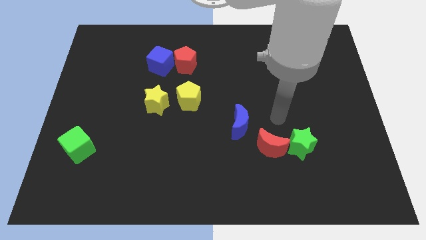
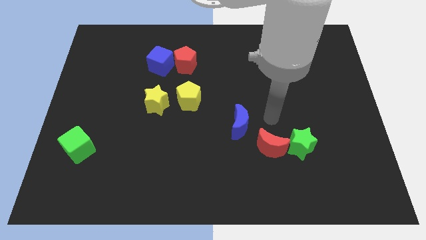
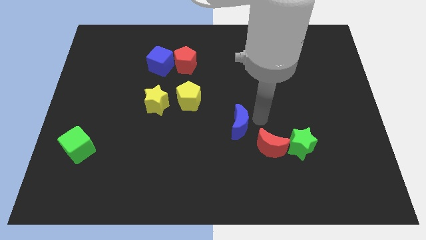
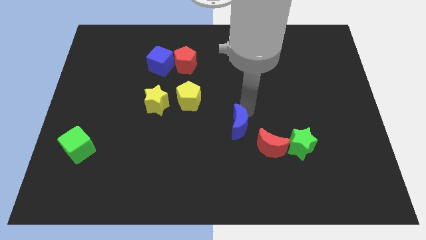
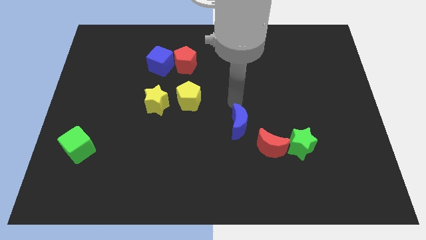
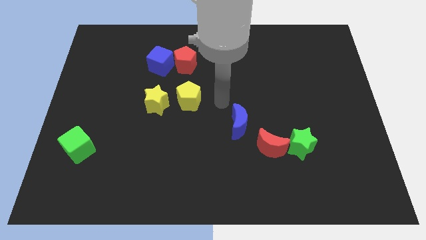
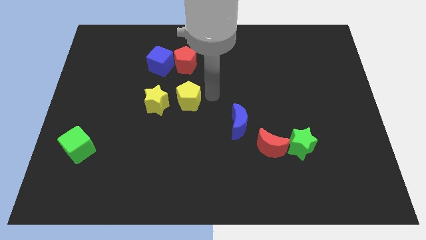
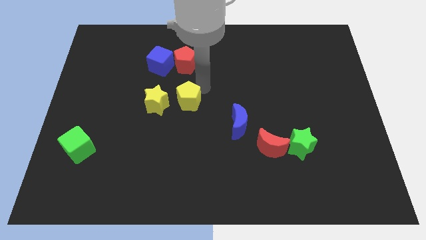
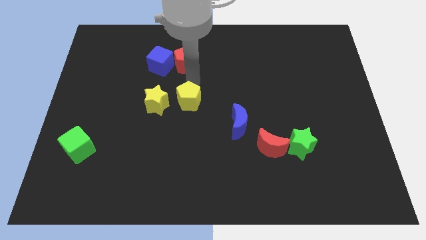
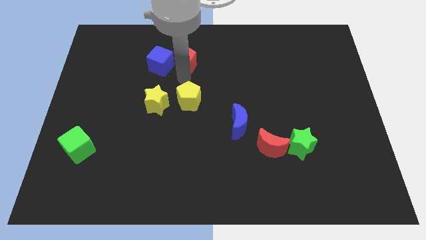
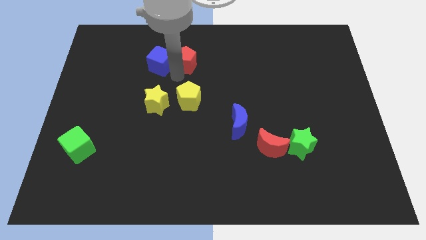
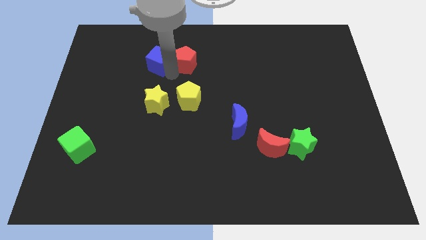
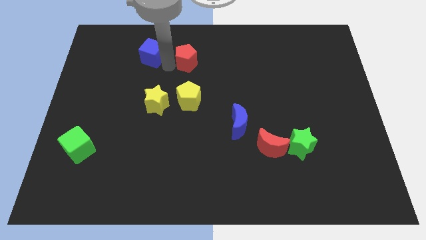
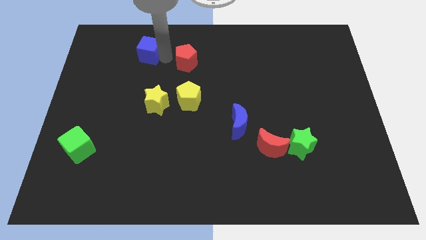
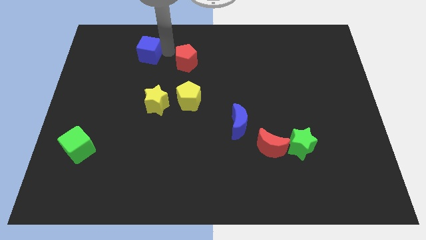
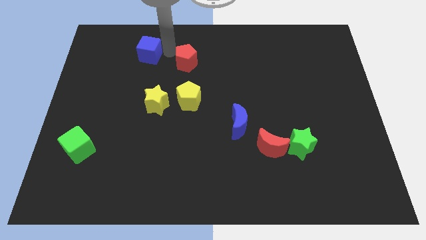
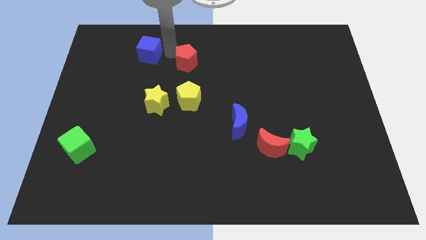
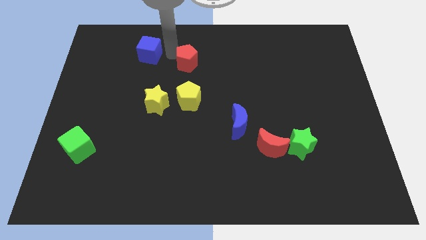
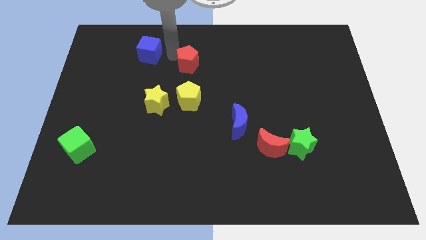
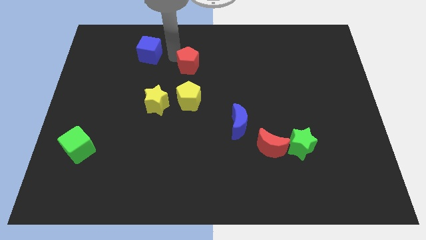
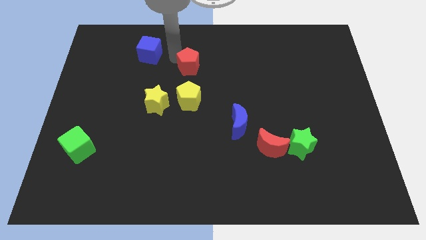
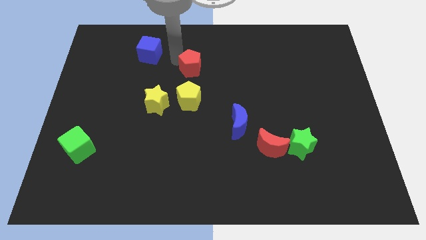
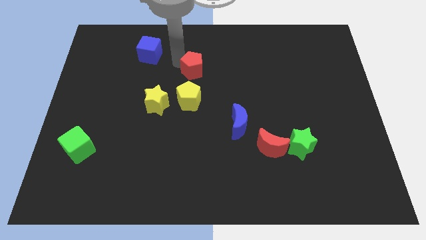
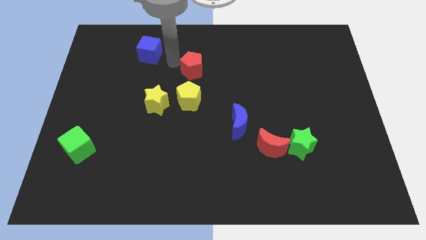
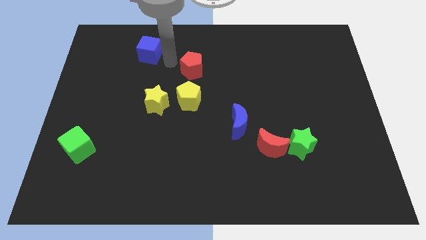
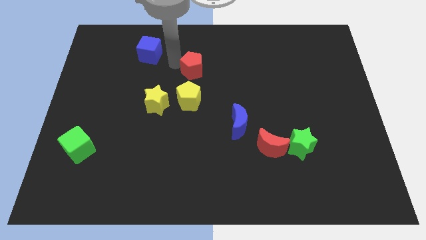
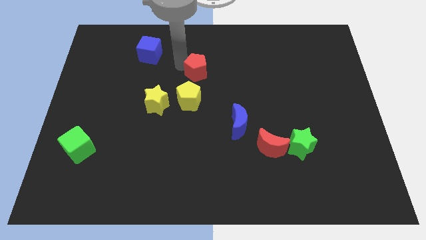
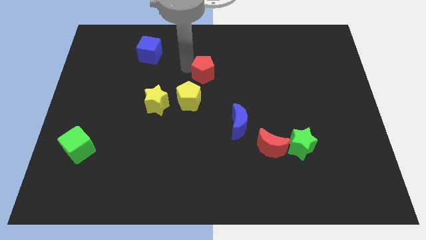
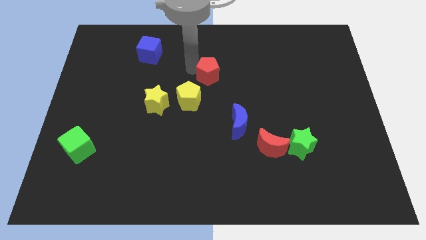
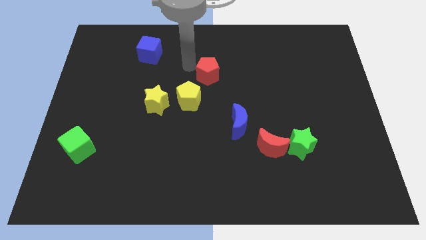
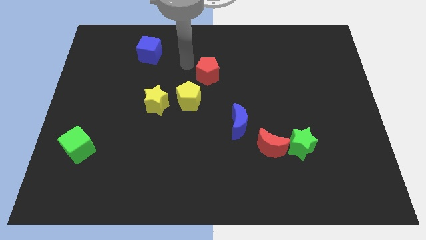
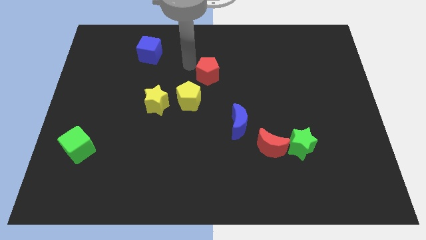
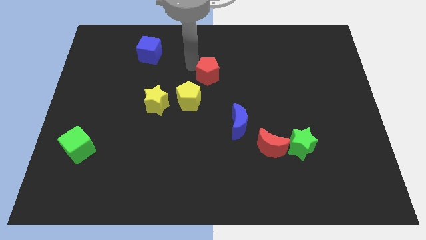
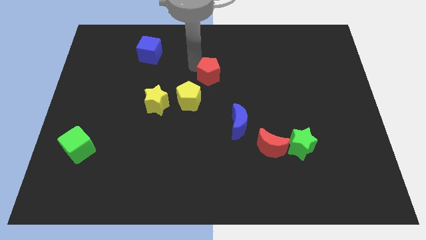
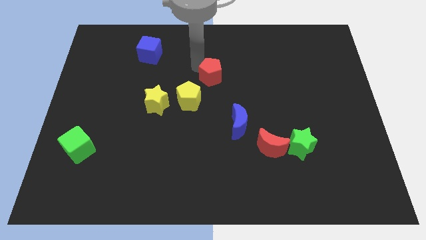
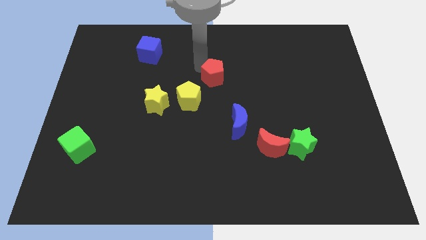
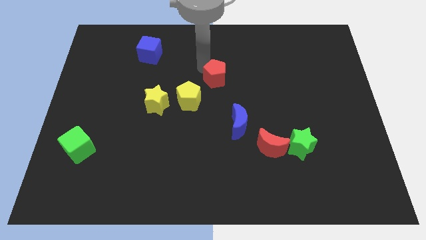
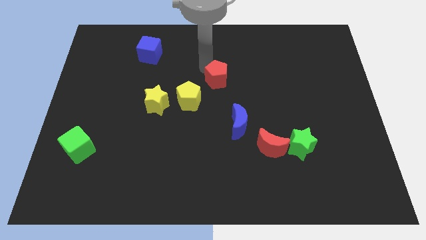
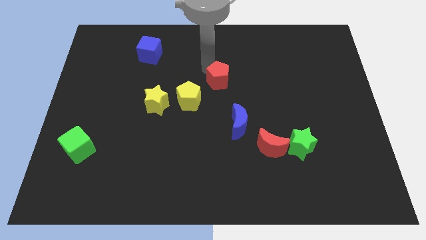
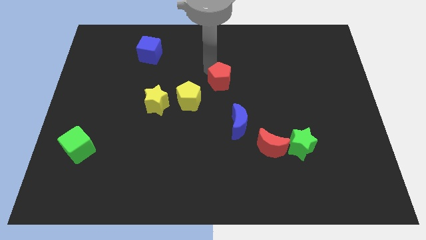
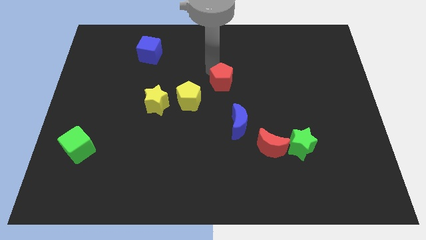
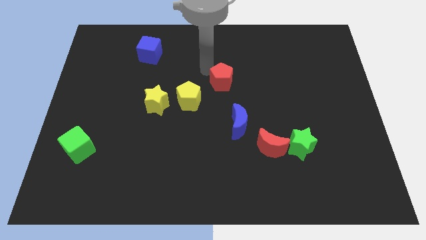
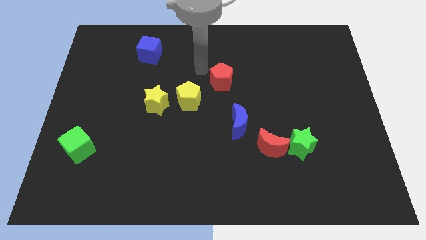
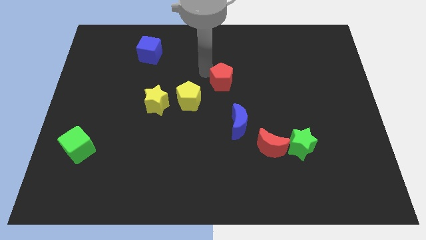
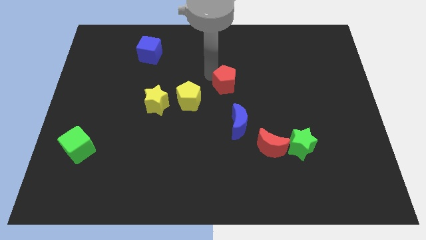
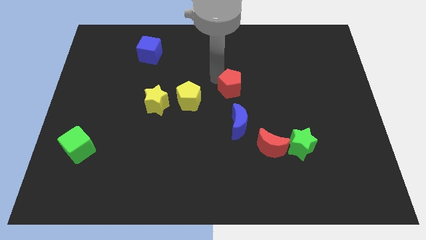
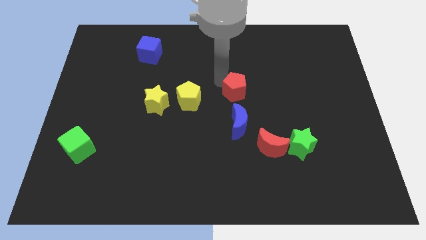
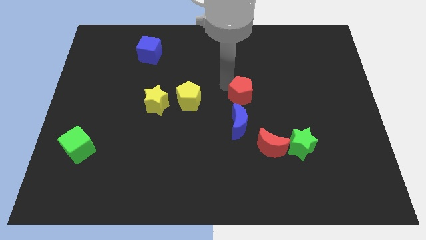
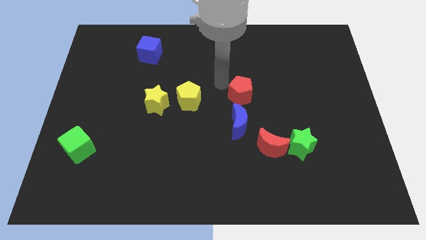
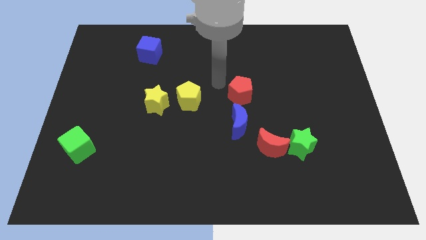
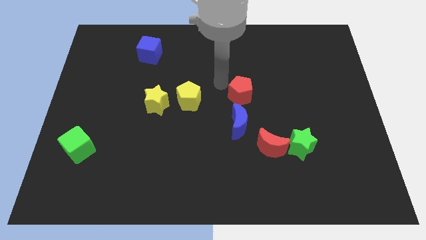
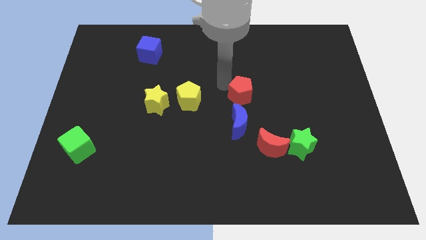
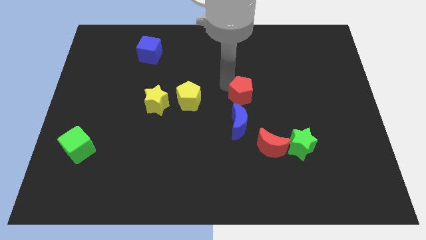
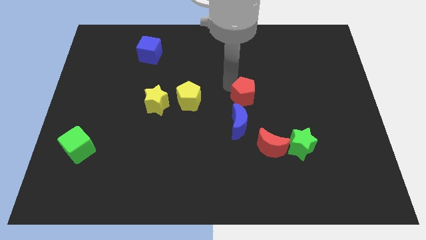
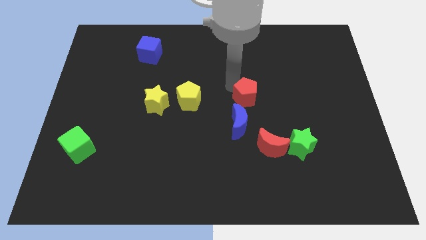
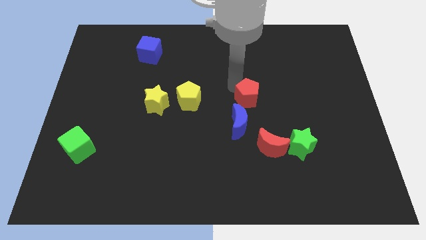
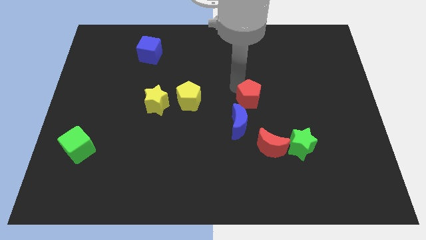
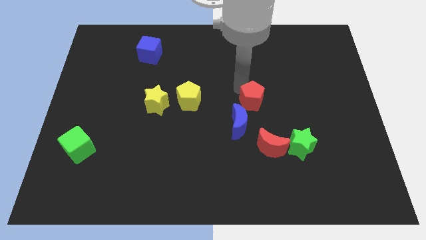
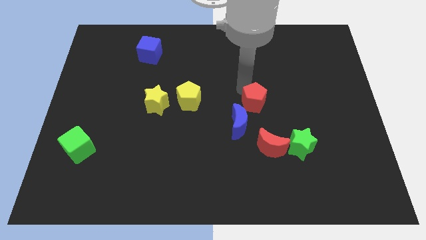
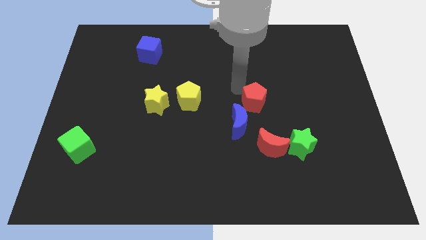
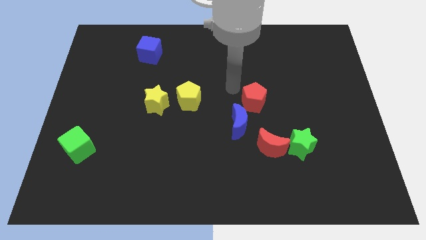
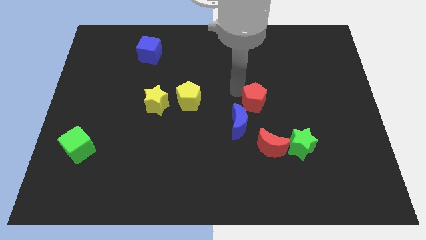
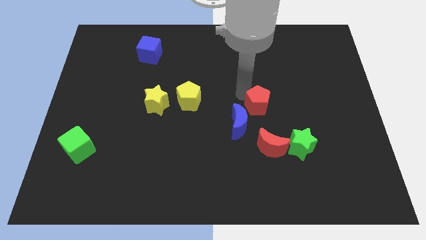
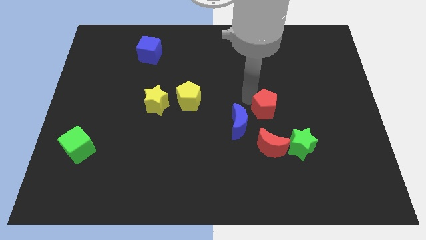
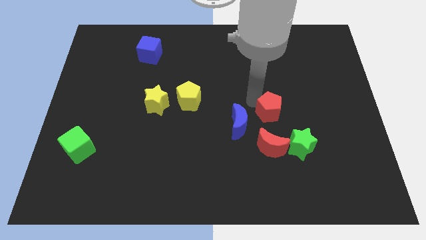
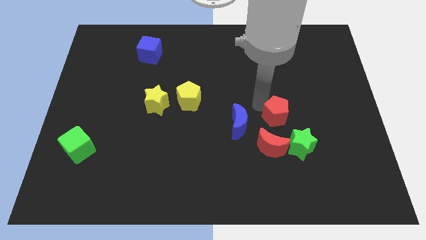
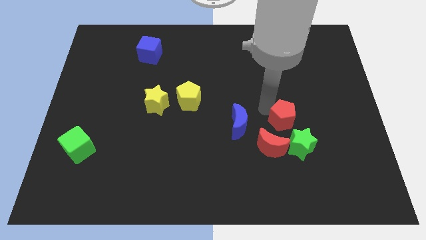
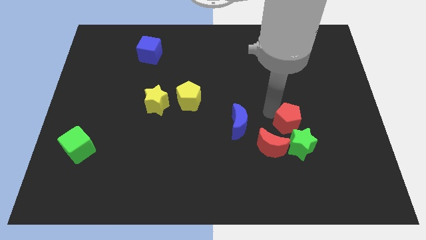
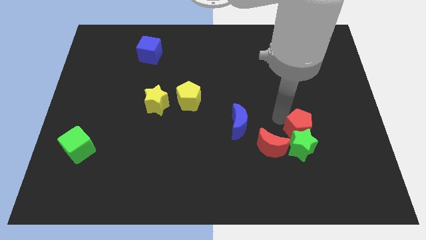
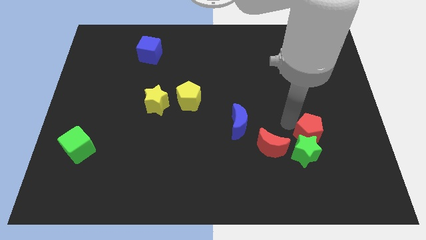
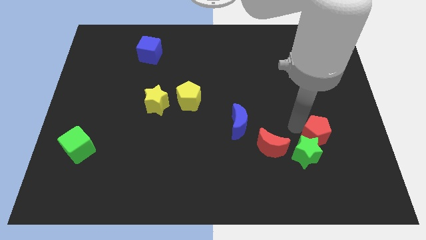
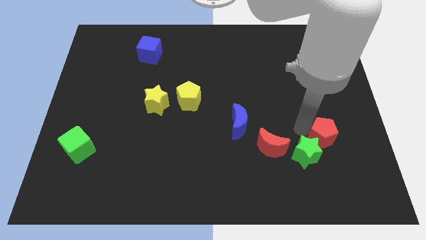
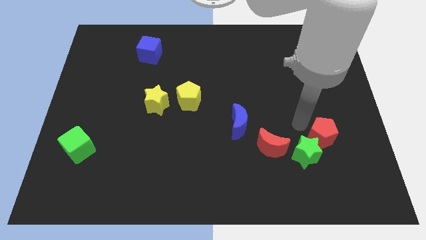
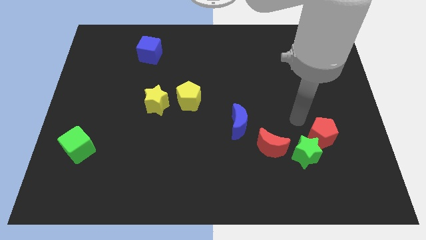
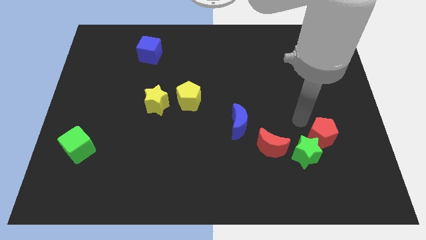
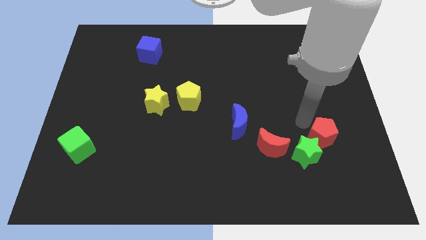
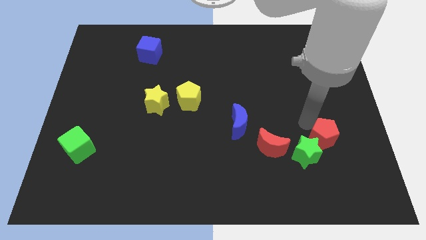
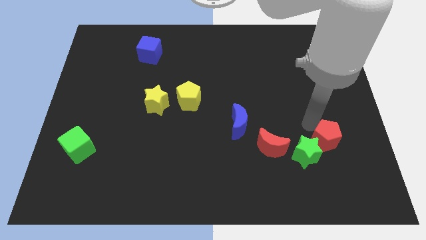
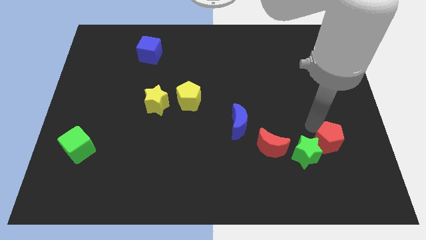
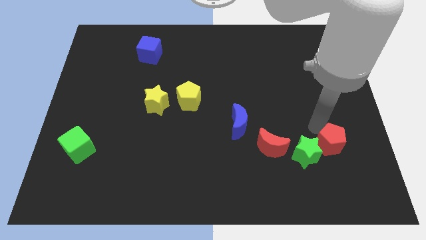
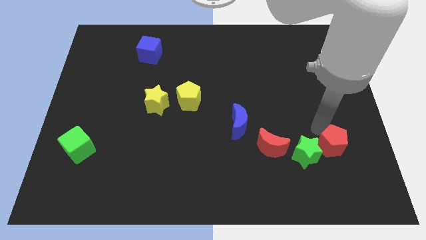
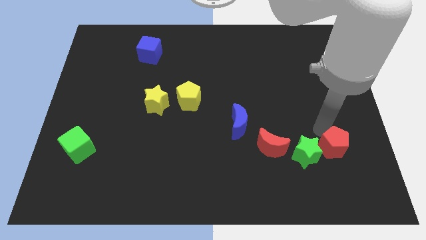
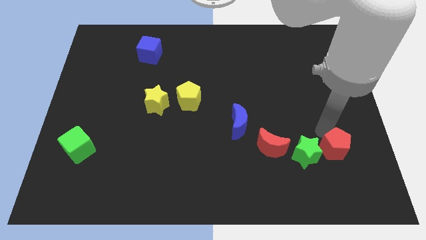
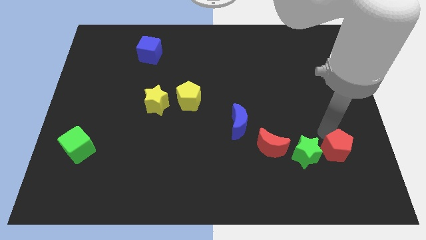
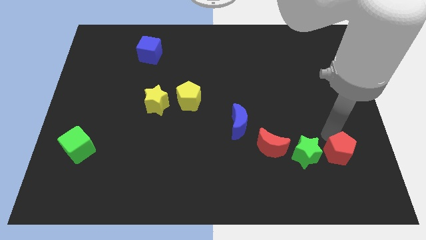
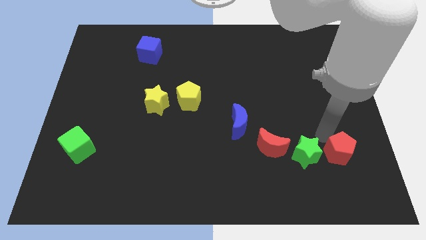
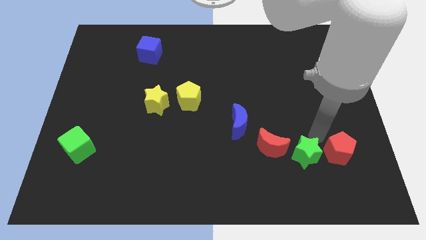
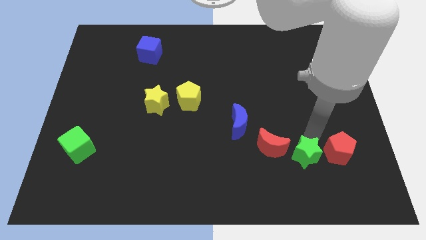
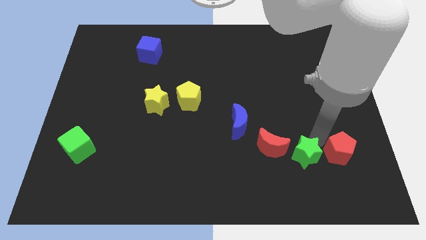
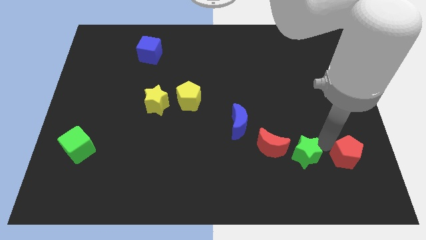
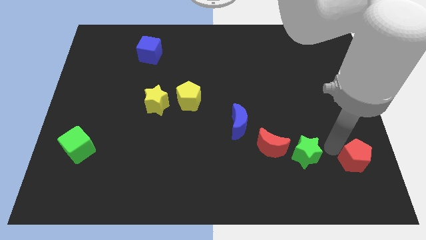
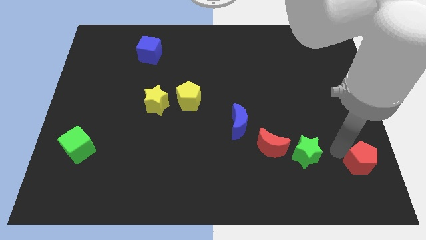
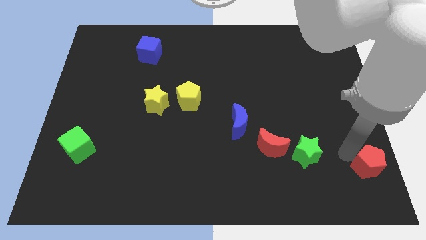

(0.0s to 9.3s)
put the red pentagon to the bottom right
